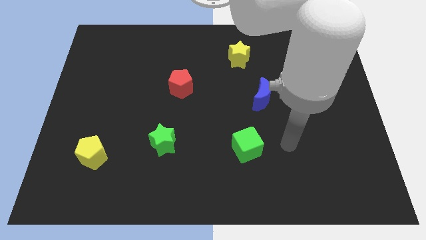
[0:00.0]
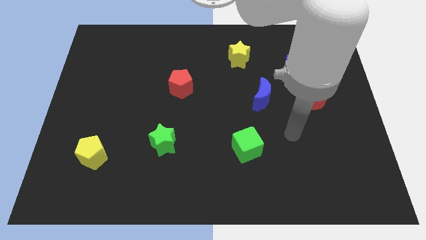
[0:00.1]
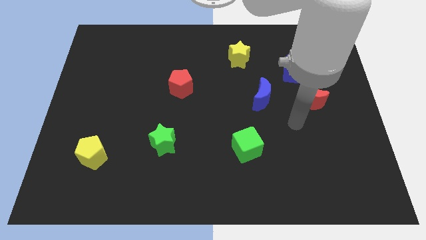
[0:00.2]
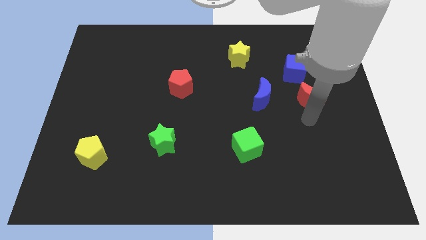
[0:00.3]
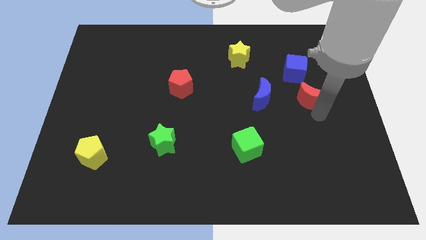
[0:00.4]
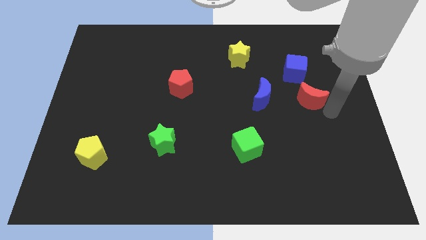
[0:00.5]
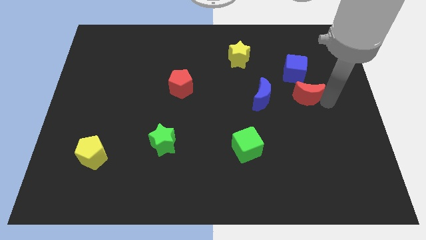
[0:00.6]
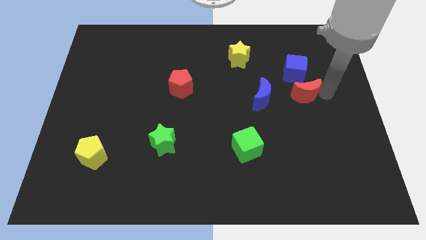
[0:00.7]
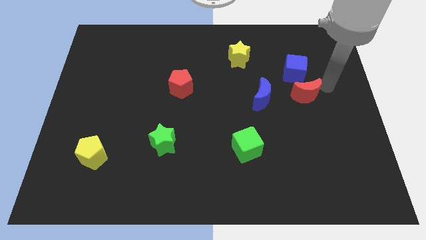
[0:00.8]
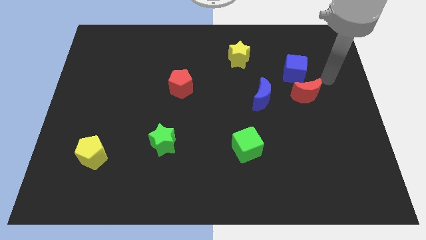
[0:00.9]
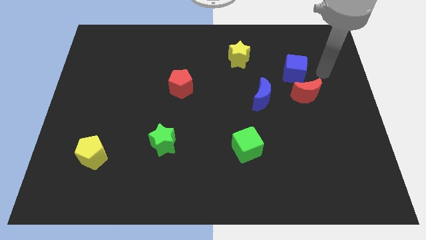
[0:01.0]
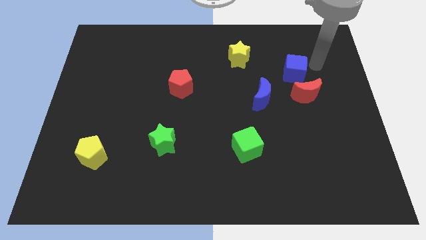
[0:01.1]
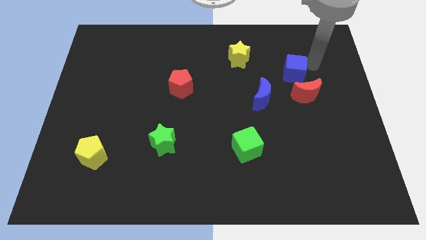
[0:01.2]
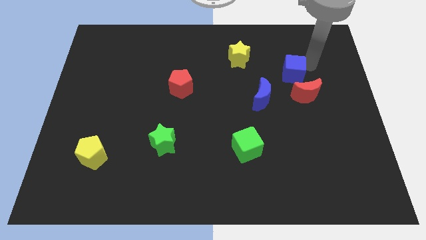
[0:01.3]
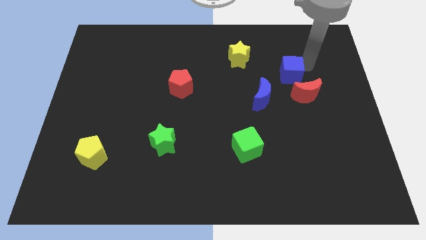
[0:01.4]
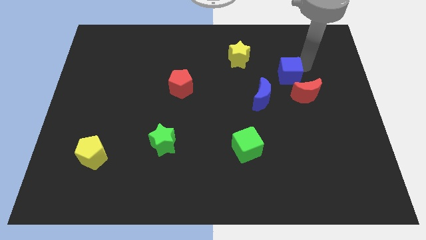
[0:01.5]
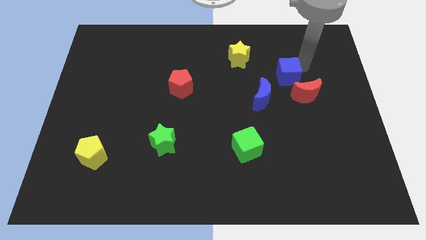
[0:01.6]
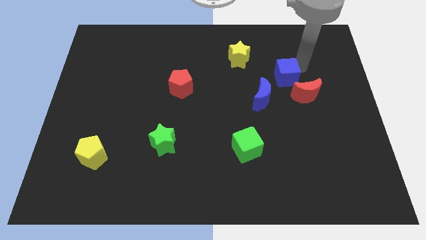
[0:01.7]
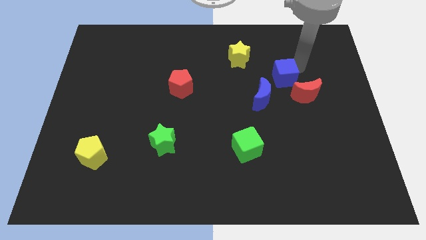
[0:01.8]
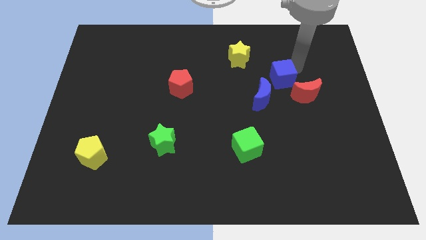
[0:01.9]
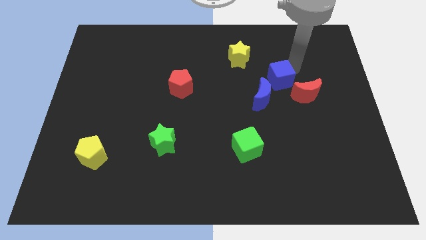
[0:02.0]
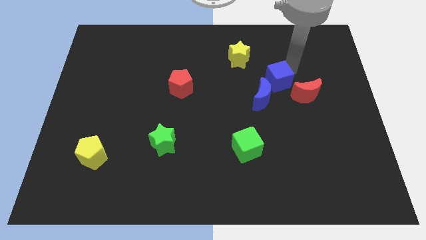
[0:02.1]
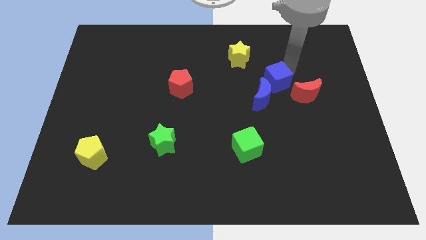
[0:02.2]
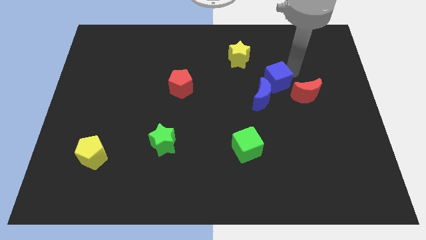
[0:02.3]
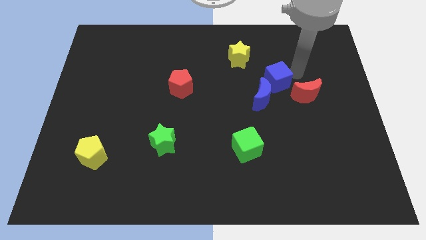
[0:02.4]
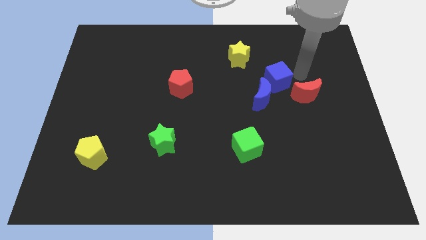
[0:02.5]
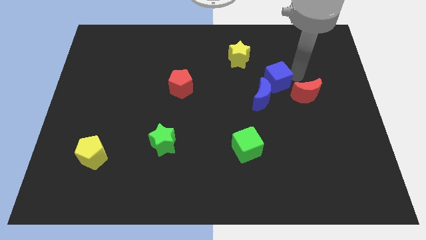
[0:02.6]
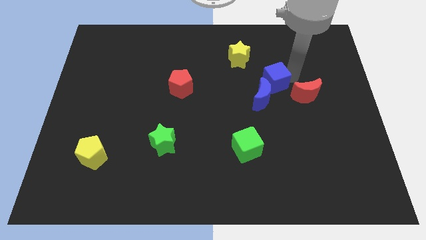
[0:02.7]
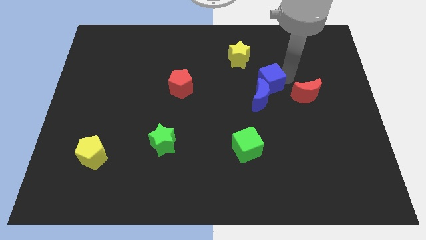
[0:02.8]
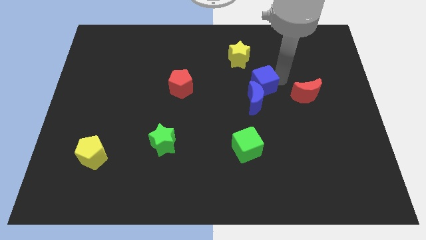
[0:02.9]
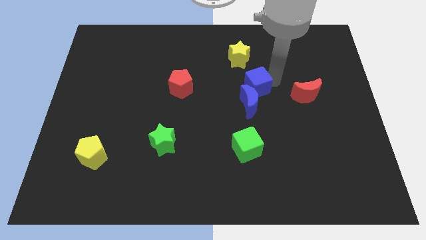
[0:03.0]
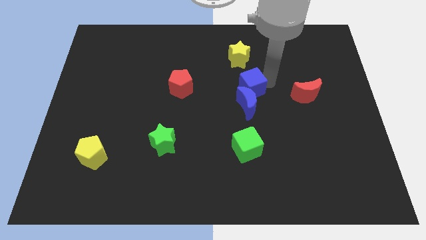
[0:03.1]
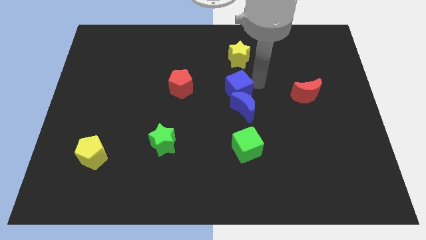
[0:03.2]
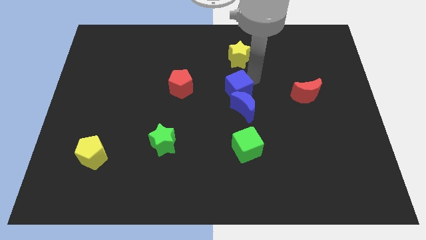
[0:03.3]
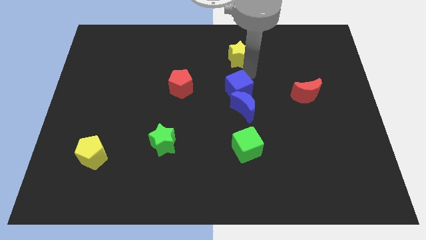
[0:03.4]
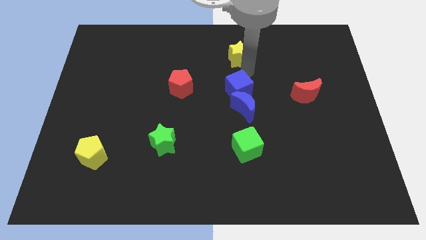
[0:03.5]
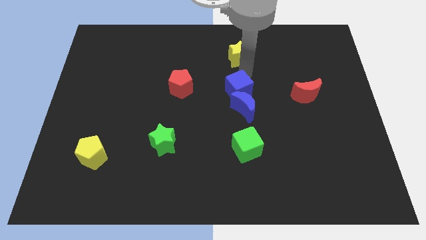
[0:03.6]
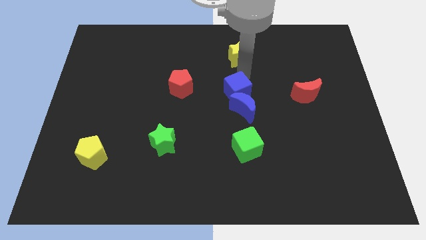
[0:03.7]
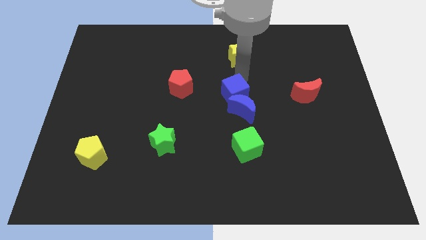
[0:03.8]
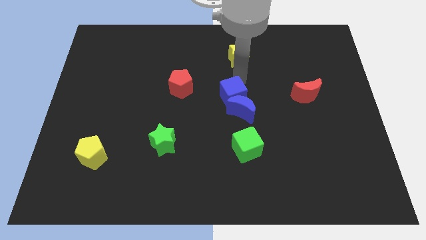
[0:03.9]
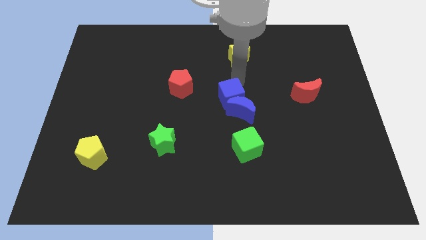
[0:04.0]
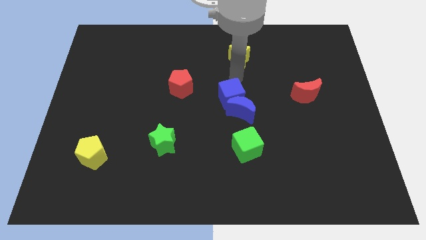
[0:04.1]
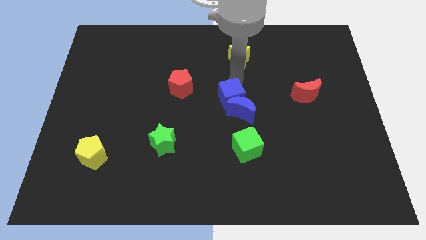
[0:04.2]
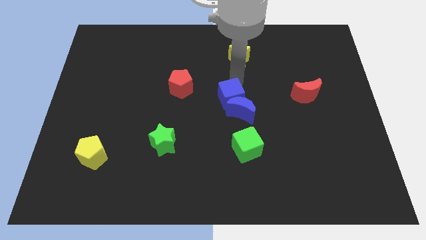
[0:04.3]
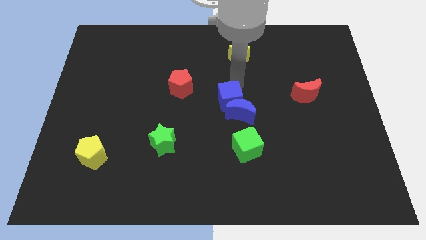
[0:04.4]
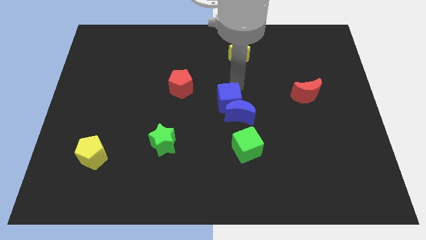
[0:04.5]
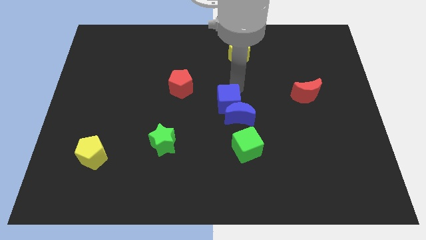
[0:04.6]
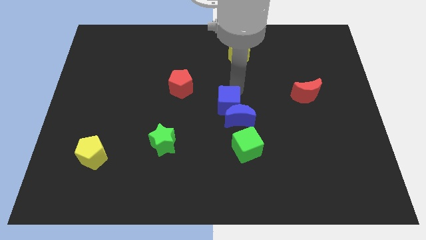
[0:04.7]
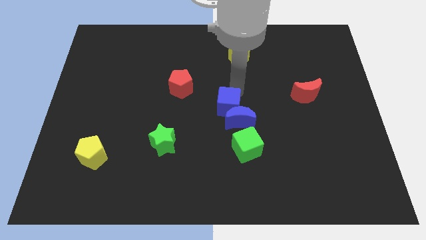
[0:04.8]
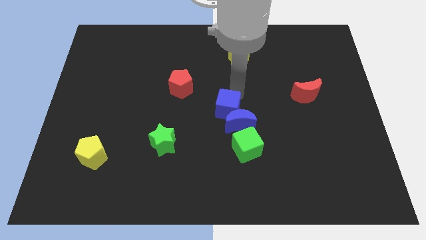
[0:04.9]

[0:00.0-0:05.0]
slide the blue cube downwards and left

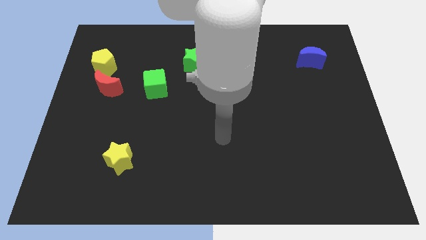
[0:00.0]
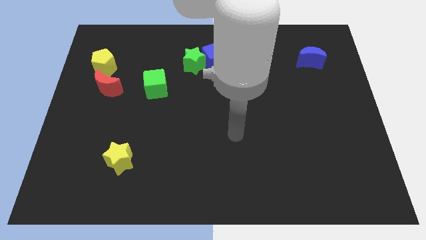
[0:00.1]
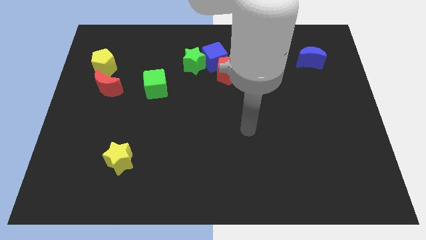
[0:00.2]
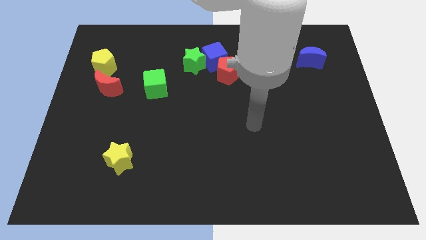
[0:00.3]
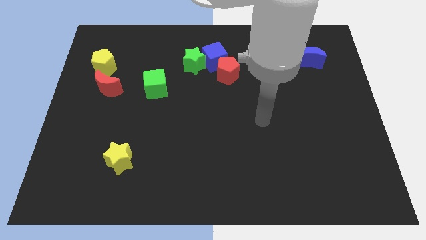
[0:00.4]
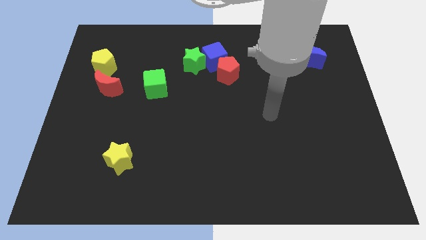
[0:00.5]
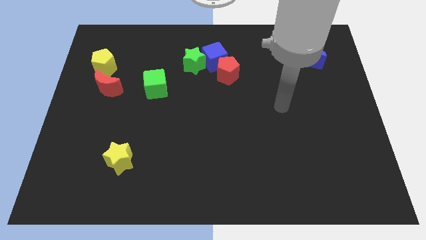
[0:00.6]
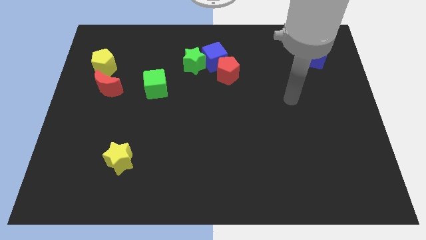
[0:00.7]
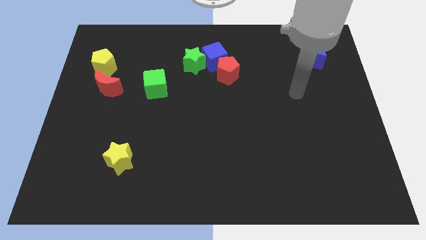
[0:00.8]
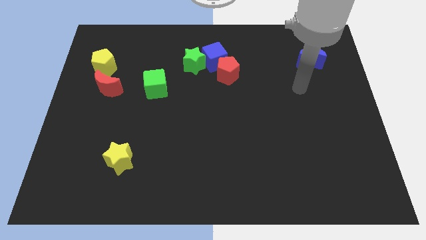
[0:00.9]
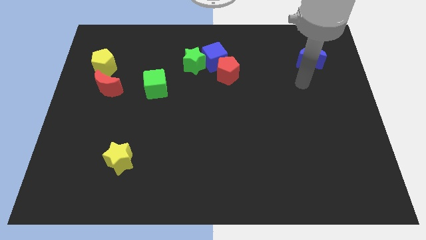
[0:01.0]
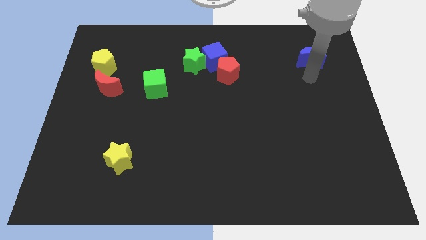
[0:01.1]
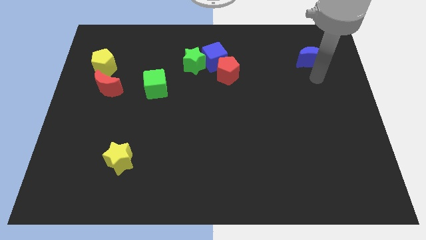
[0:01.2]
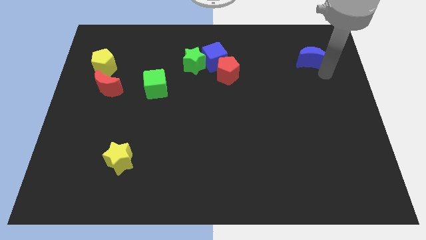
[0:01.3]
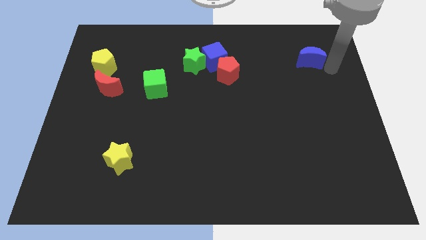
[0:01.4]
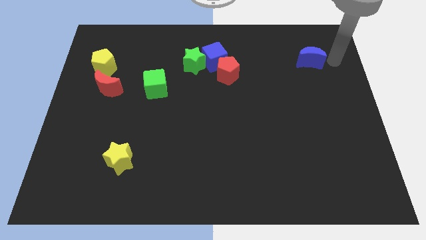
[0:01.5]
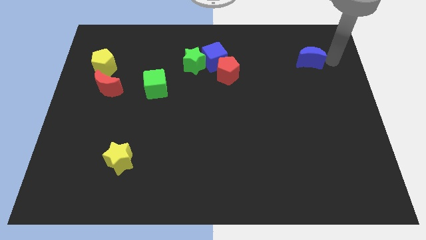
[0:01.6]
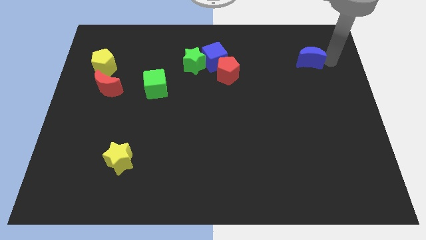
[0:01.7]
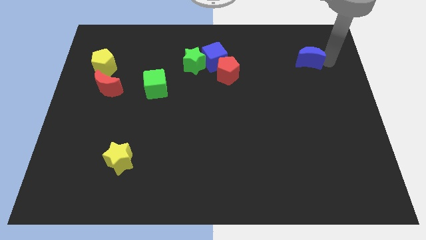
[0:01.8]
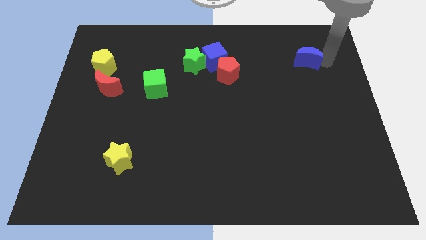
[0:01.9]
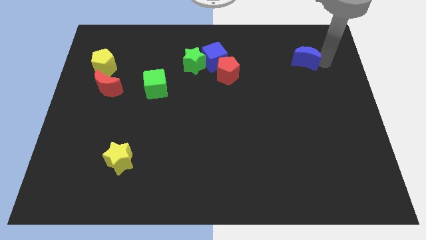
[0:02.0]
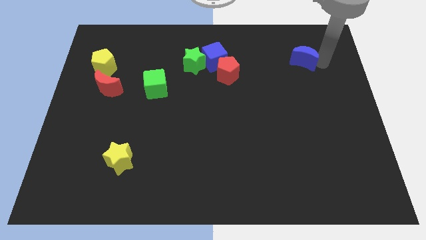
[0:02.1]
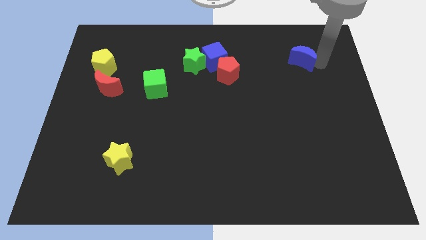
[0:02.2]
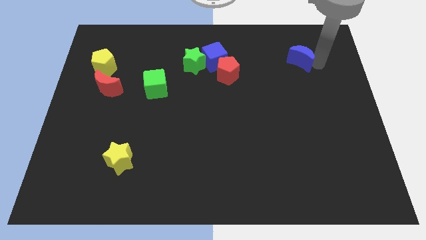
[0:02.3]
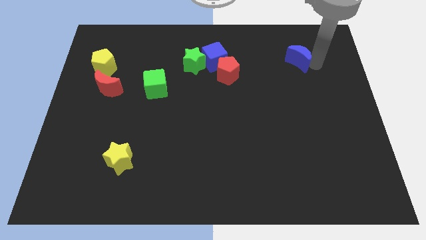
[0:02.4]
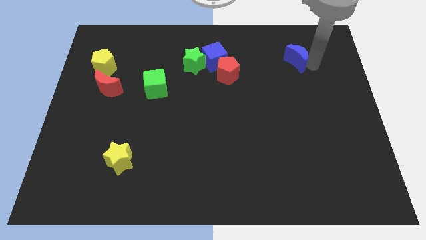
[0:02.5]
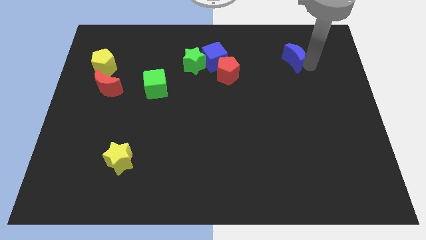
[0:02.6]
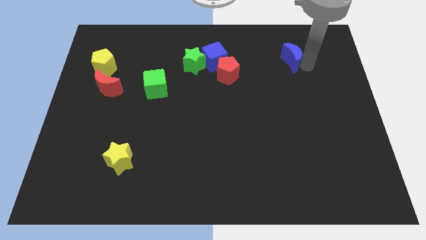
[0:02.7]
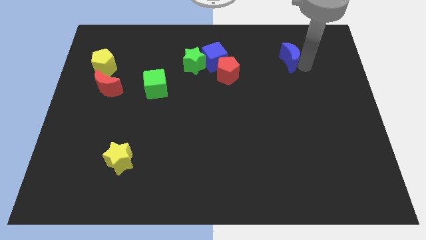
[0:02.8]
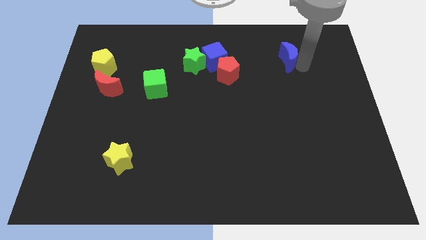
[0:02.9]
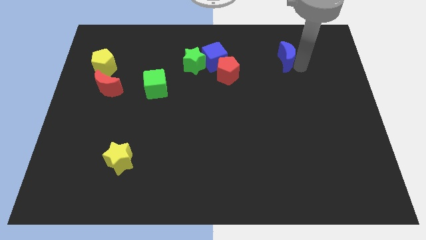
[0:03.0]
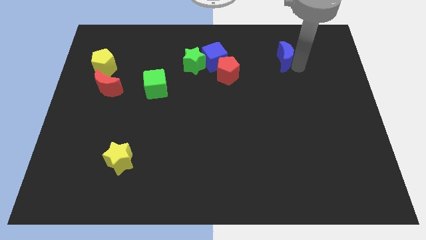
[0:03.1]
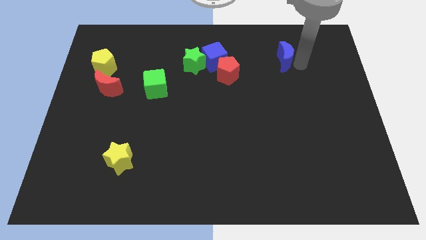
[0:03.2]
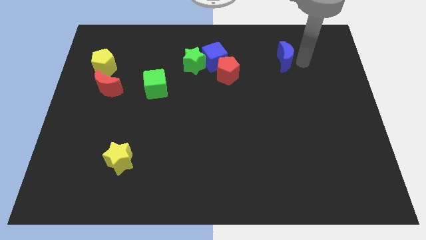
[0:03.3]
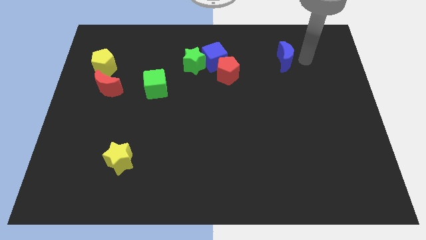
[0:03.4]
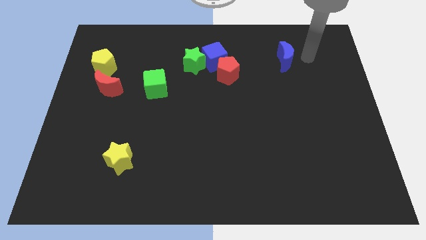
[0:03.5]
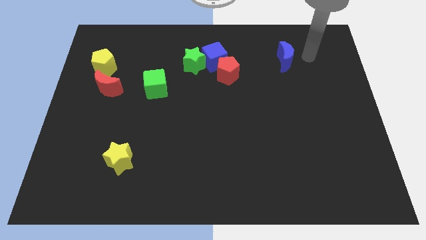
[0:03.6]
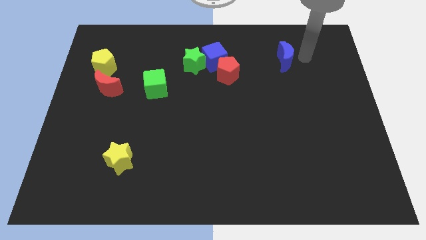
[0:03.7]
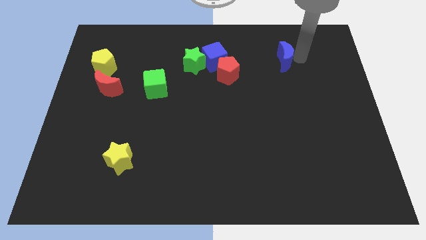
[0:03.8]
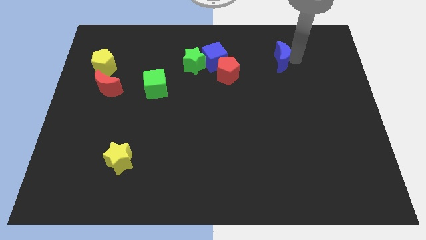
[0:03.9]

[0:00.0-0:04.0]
push the blue moon a bit to the left
